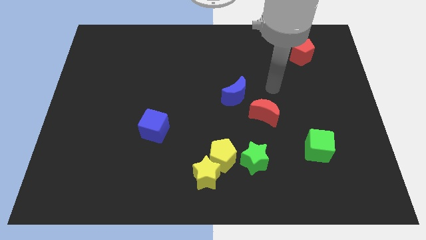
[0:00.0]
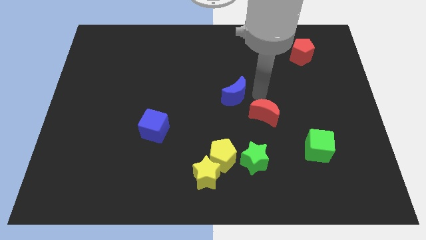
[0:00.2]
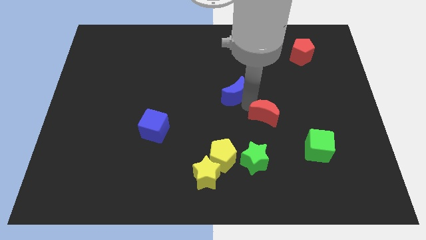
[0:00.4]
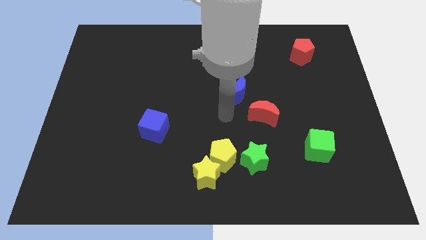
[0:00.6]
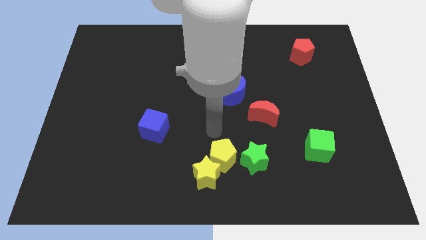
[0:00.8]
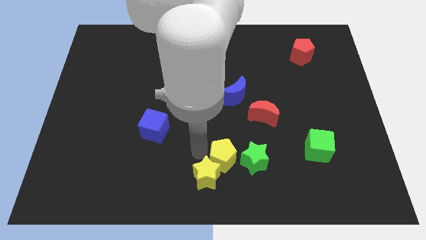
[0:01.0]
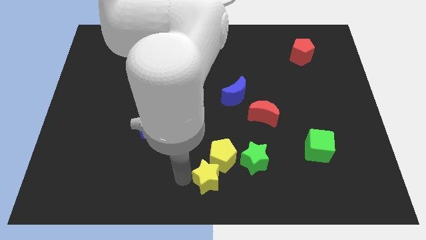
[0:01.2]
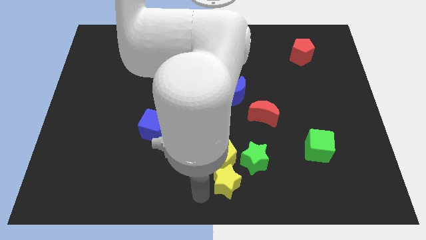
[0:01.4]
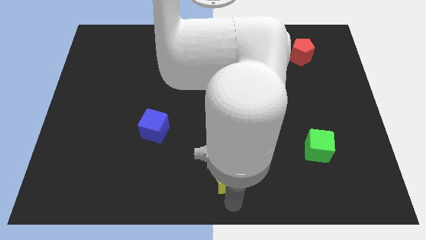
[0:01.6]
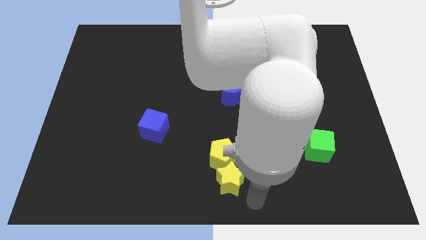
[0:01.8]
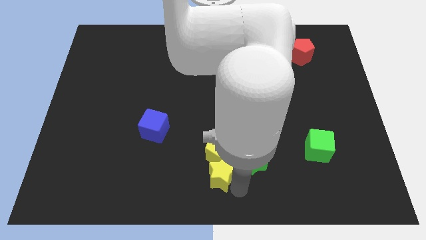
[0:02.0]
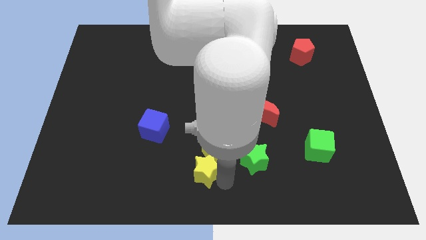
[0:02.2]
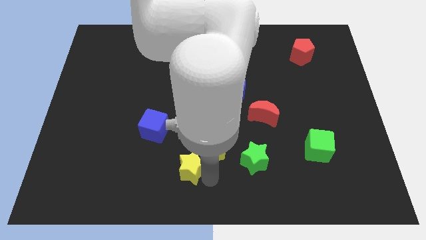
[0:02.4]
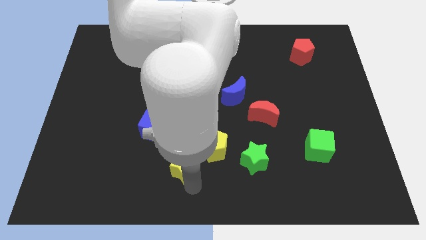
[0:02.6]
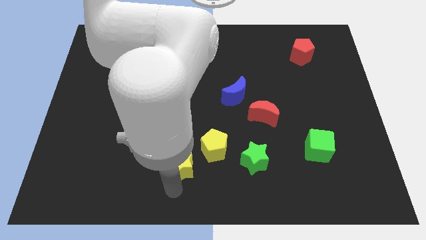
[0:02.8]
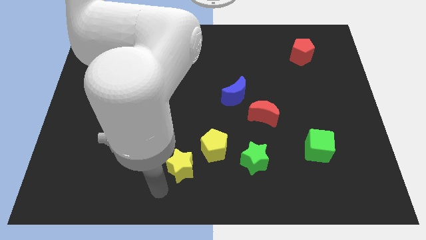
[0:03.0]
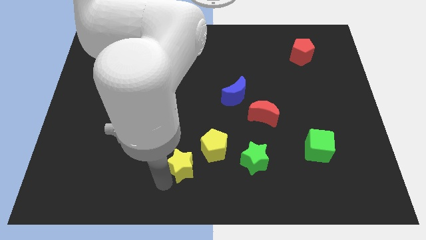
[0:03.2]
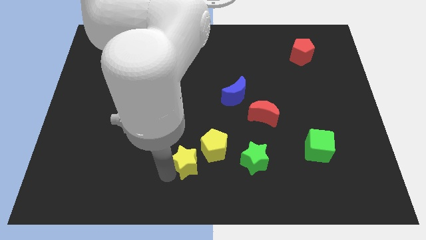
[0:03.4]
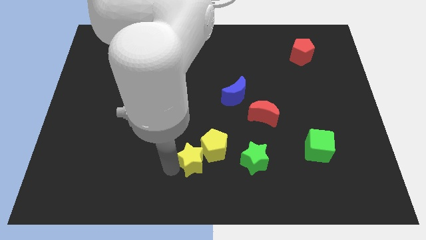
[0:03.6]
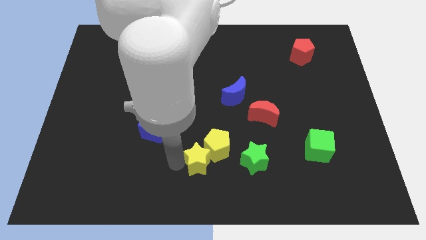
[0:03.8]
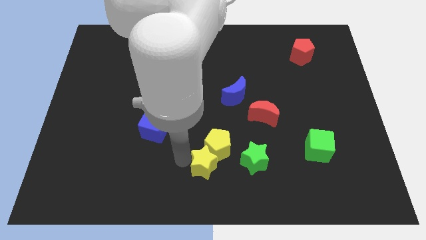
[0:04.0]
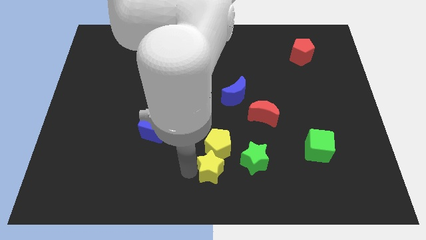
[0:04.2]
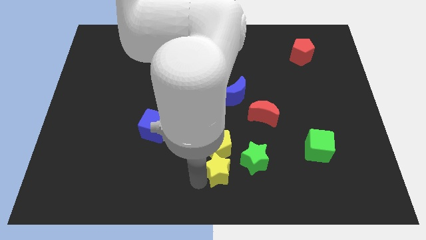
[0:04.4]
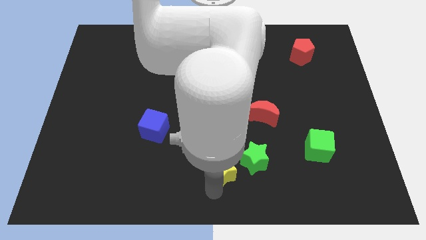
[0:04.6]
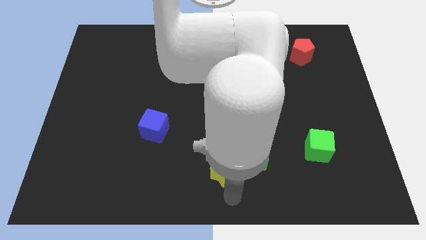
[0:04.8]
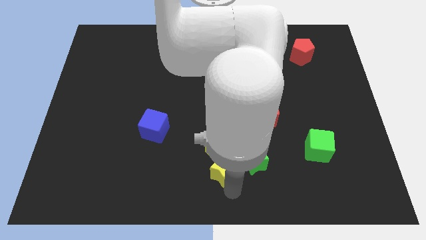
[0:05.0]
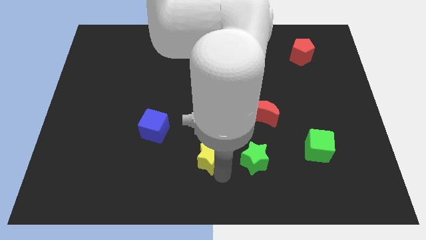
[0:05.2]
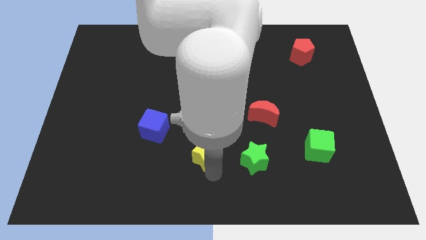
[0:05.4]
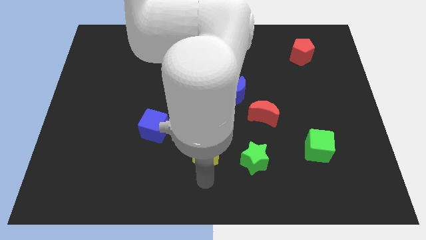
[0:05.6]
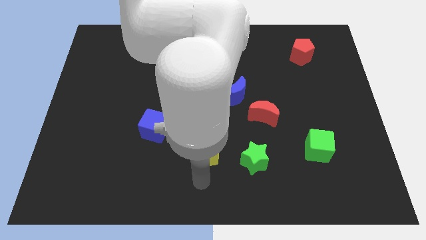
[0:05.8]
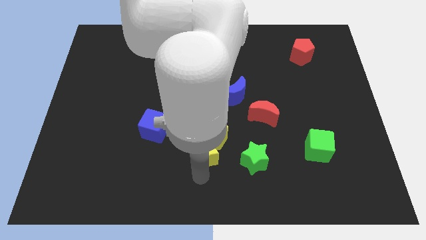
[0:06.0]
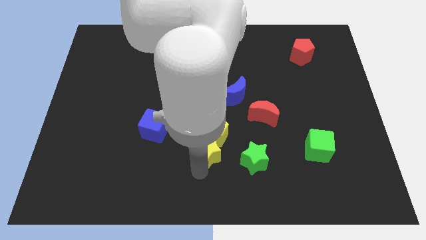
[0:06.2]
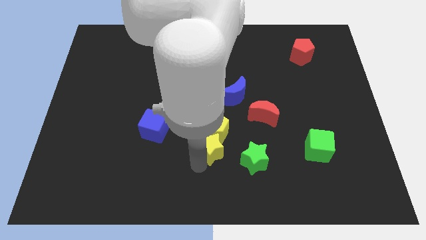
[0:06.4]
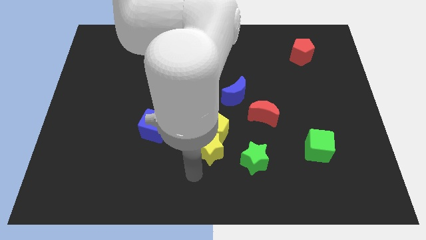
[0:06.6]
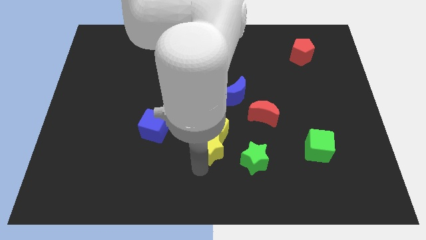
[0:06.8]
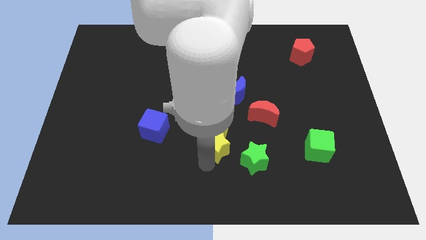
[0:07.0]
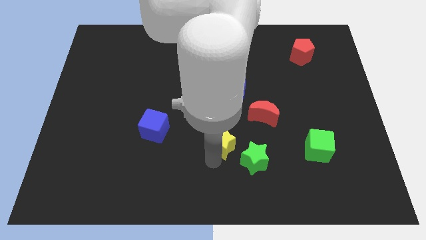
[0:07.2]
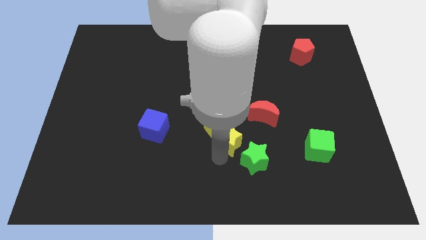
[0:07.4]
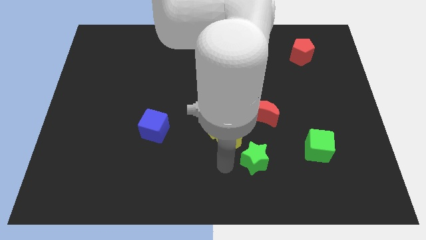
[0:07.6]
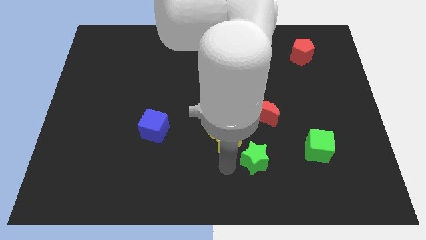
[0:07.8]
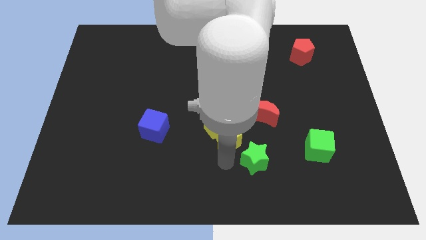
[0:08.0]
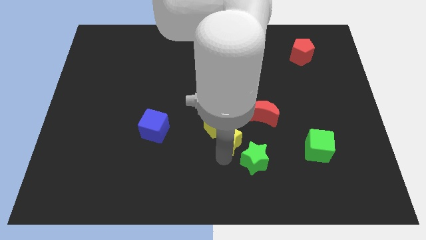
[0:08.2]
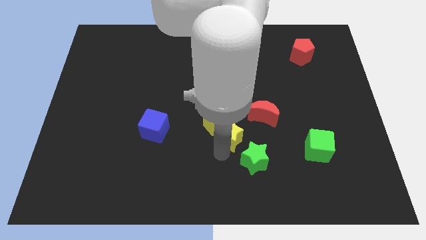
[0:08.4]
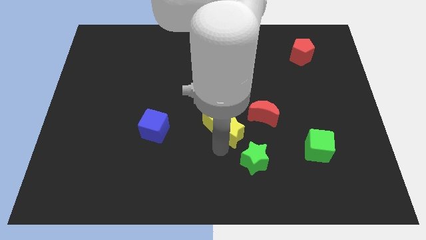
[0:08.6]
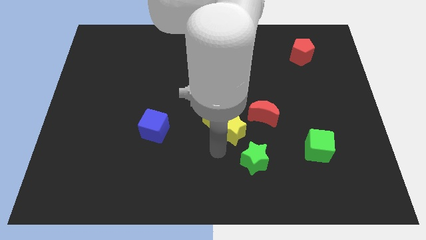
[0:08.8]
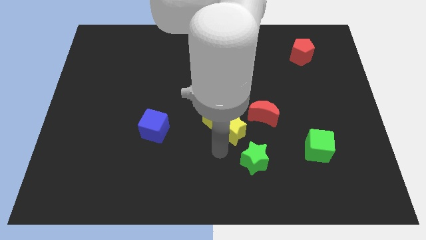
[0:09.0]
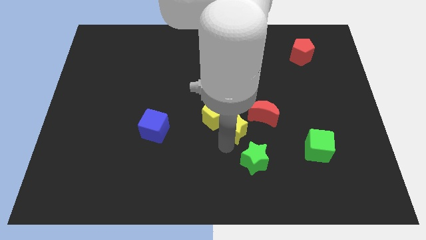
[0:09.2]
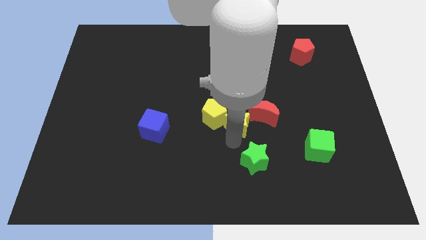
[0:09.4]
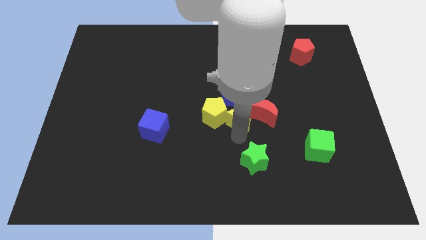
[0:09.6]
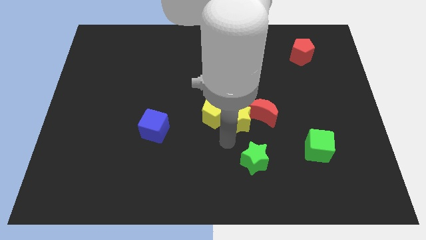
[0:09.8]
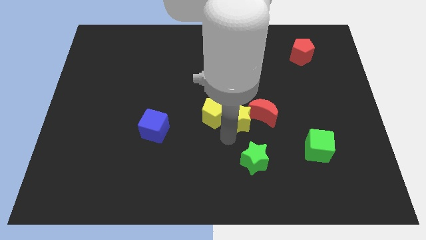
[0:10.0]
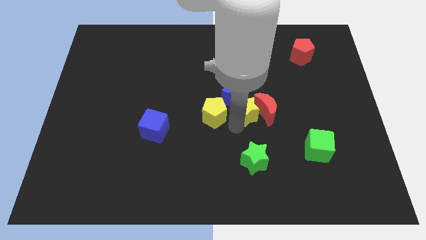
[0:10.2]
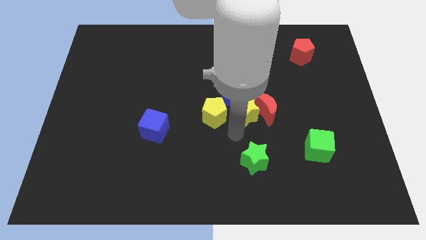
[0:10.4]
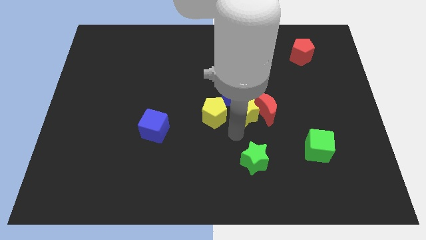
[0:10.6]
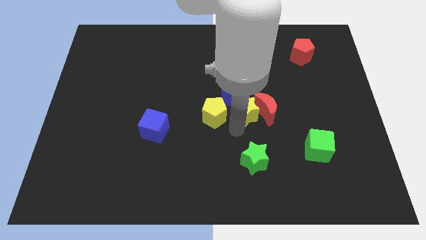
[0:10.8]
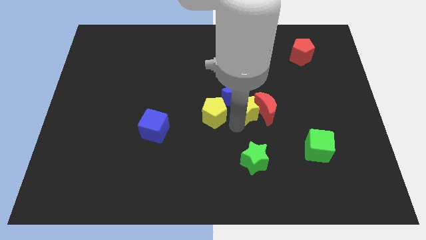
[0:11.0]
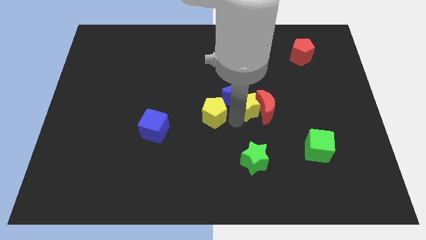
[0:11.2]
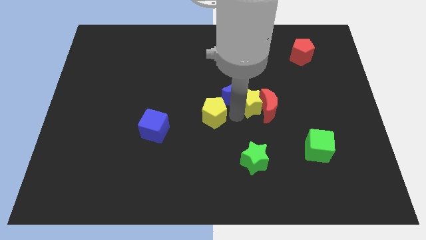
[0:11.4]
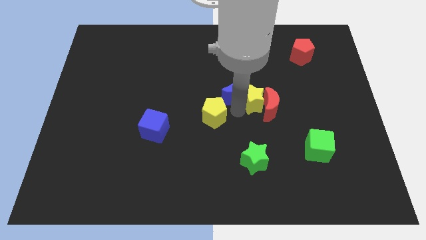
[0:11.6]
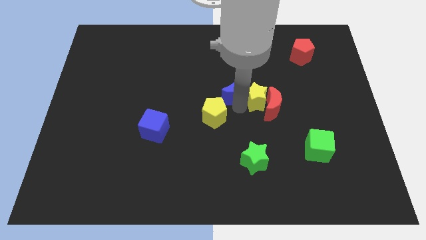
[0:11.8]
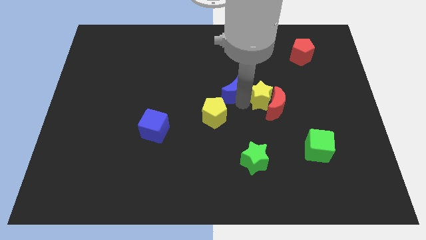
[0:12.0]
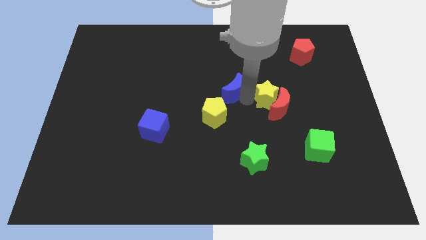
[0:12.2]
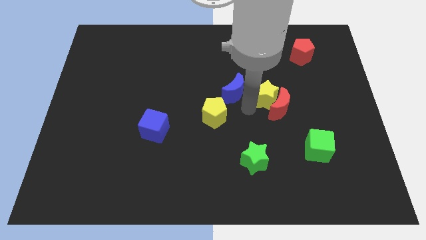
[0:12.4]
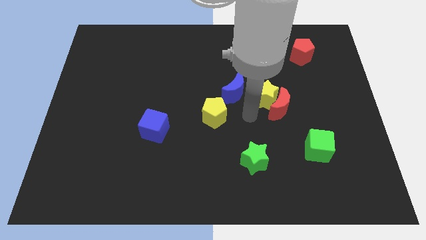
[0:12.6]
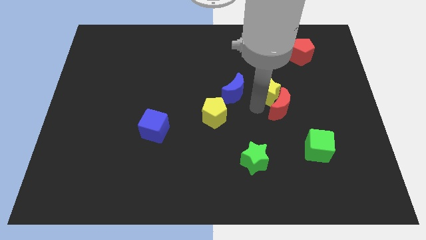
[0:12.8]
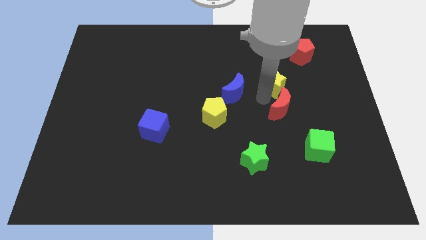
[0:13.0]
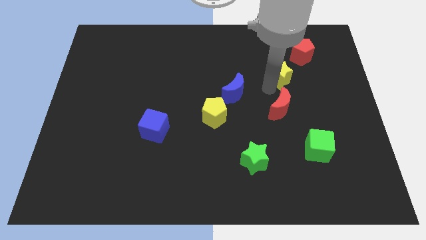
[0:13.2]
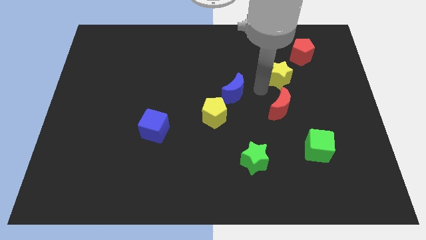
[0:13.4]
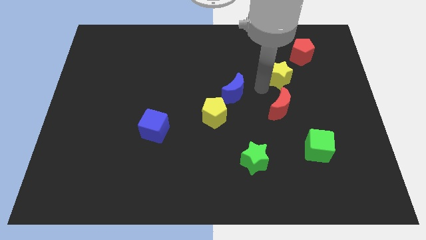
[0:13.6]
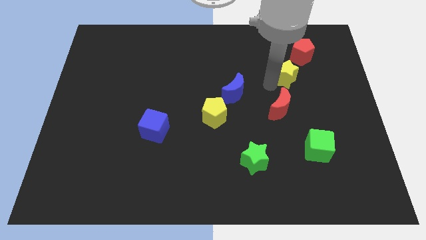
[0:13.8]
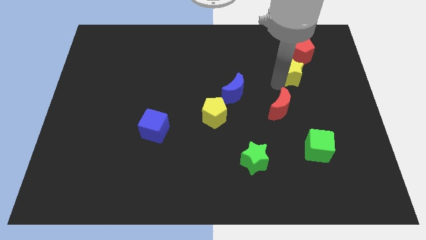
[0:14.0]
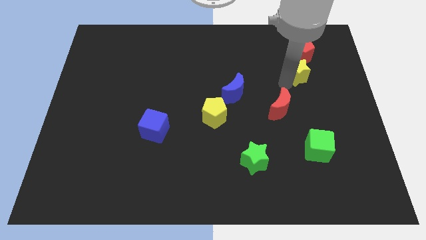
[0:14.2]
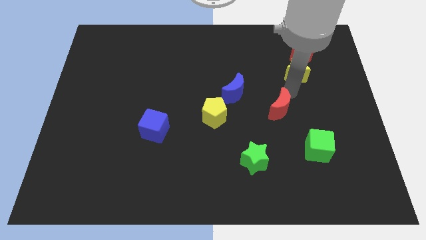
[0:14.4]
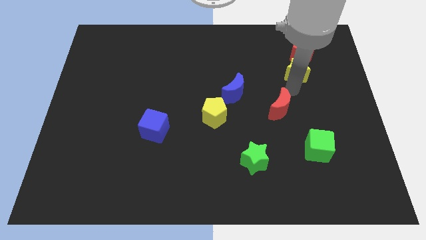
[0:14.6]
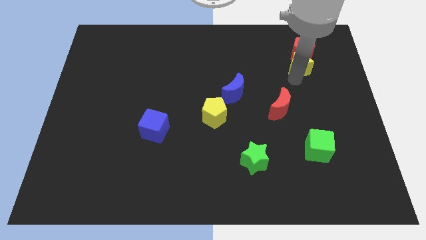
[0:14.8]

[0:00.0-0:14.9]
push the yellow star next to the red pentagon
